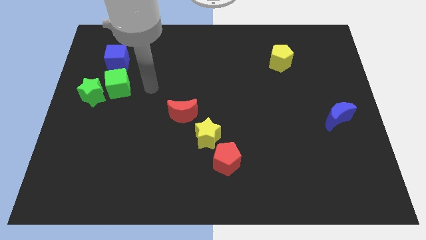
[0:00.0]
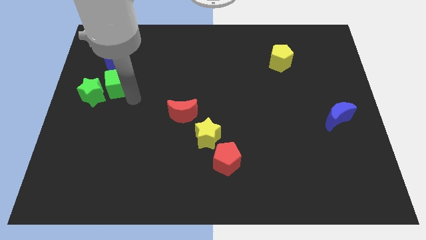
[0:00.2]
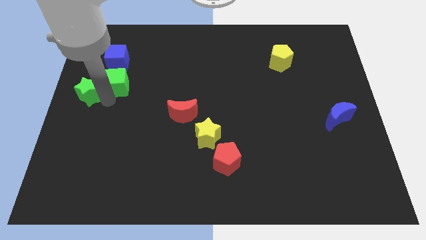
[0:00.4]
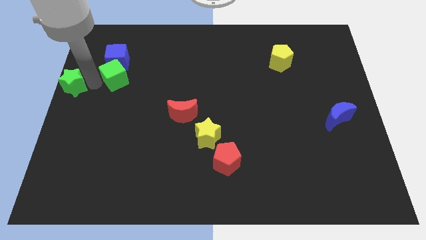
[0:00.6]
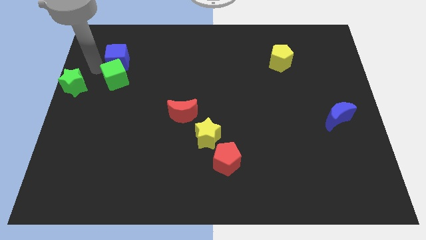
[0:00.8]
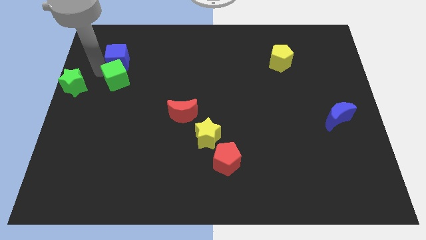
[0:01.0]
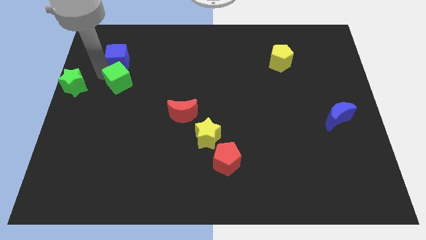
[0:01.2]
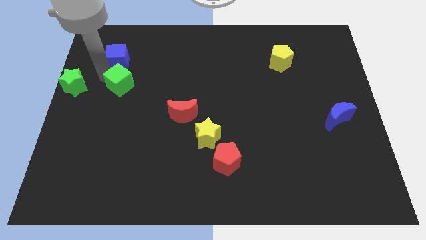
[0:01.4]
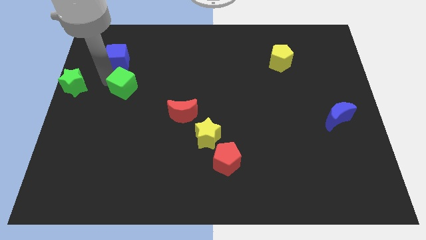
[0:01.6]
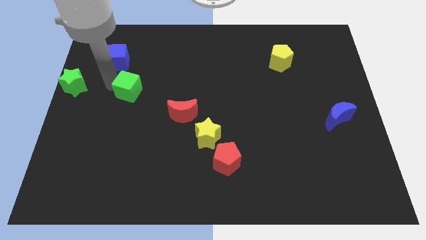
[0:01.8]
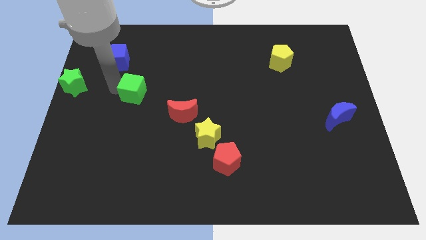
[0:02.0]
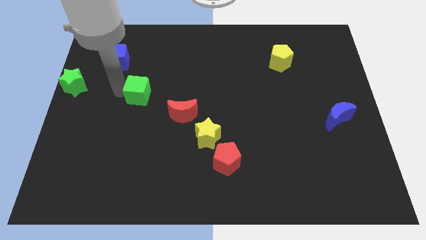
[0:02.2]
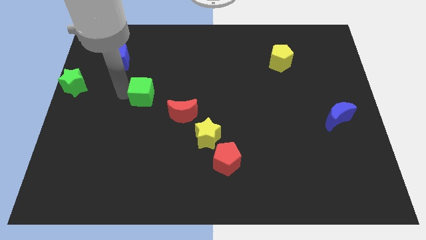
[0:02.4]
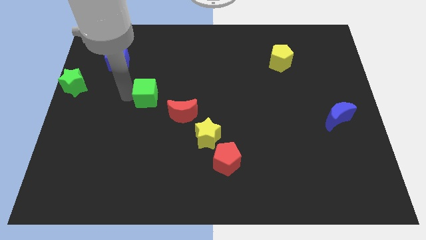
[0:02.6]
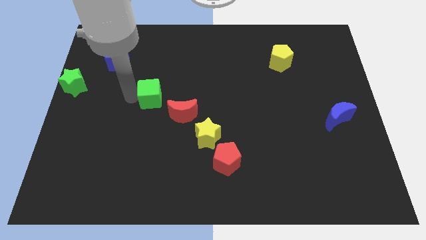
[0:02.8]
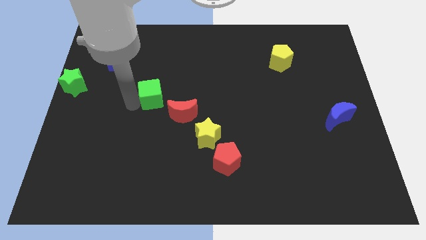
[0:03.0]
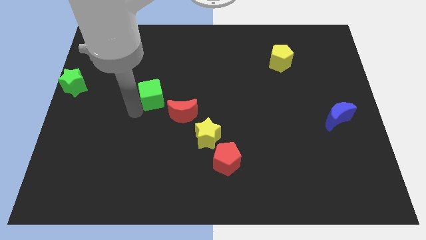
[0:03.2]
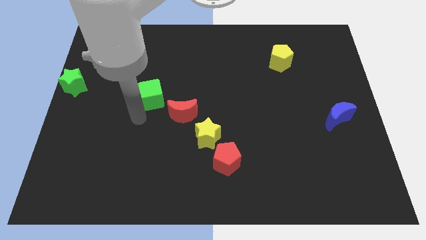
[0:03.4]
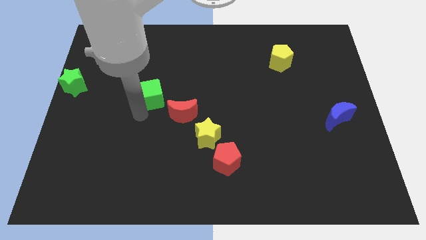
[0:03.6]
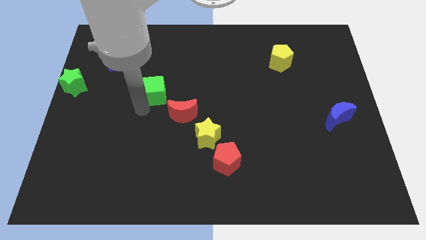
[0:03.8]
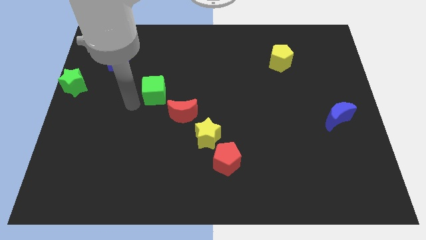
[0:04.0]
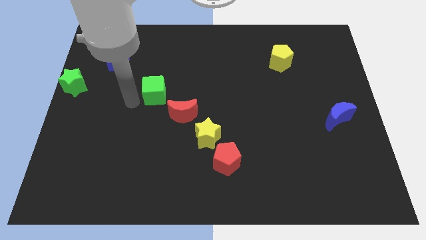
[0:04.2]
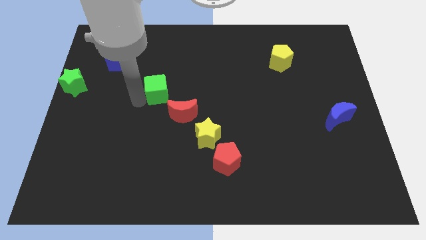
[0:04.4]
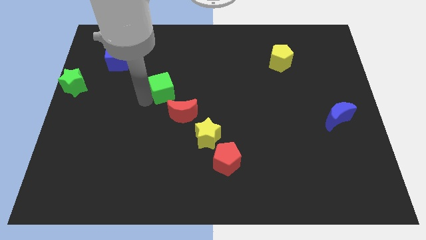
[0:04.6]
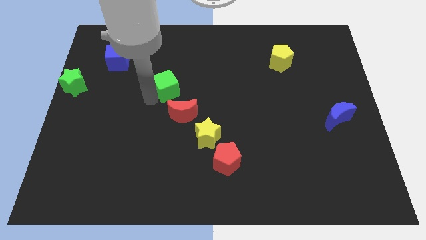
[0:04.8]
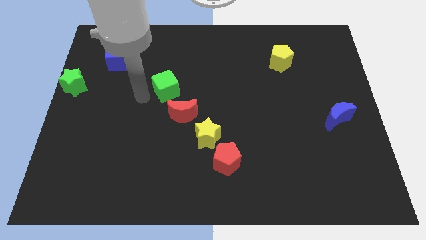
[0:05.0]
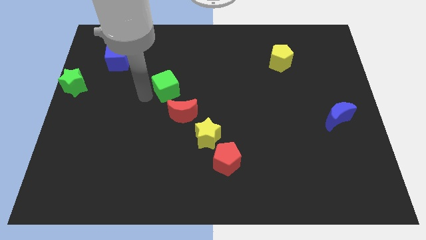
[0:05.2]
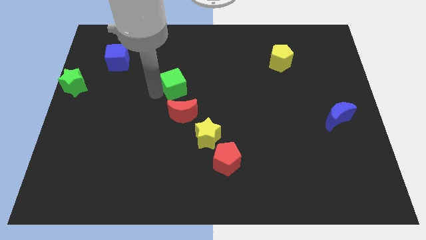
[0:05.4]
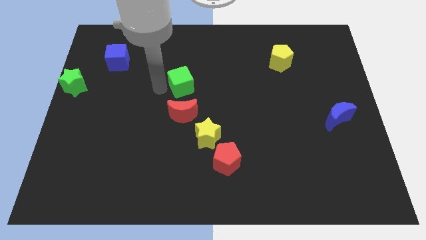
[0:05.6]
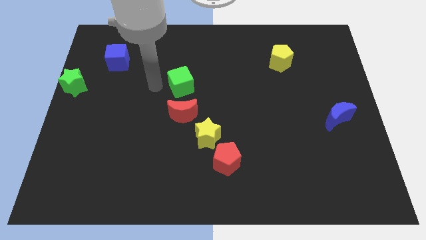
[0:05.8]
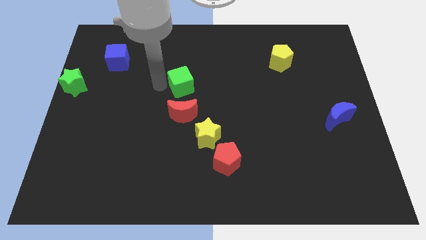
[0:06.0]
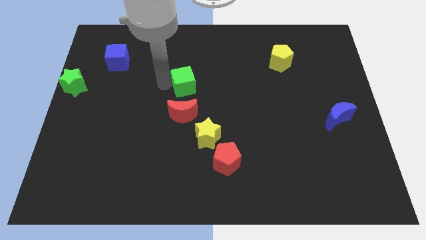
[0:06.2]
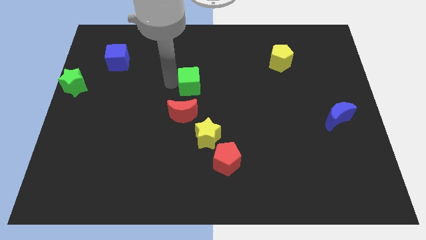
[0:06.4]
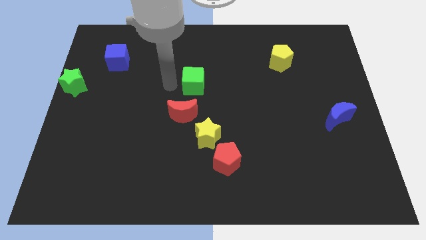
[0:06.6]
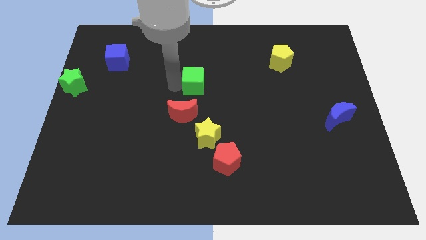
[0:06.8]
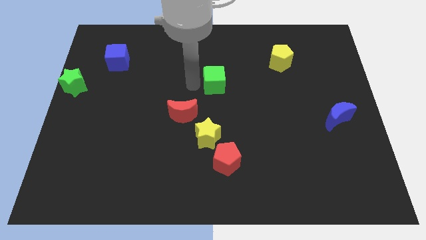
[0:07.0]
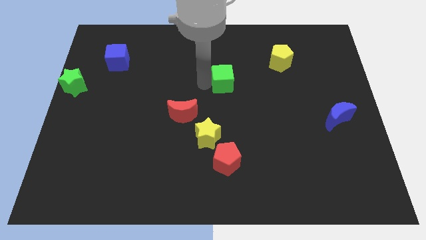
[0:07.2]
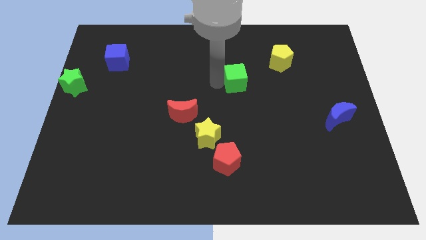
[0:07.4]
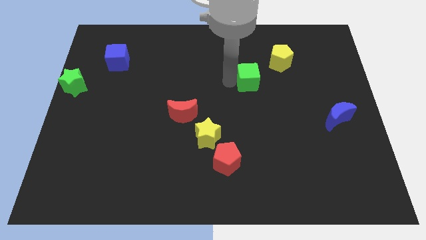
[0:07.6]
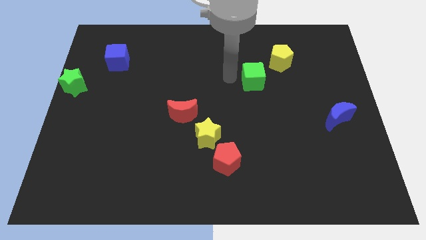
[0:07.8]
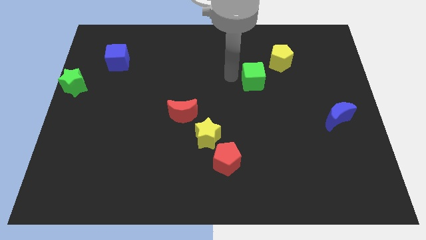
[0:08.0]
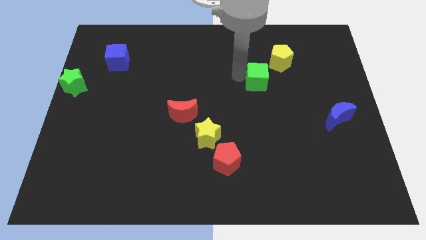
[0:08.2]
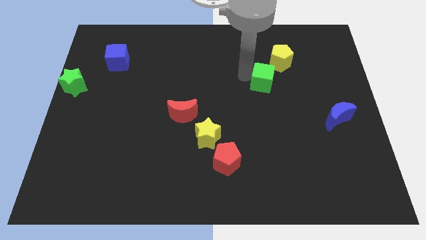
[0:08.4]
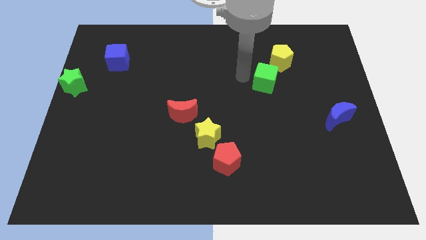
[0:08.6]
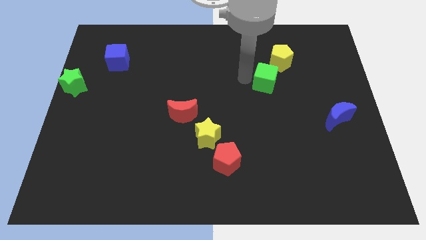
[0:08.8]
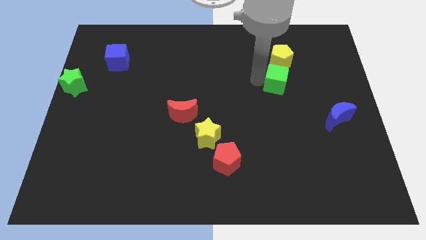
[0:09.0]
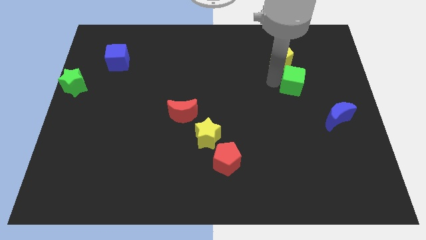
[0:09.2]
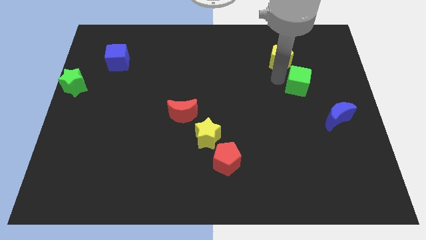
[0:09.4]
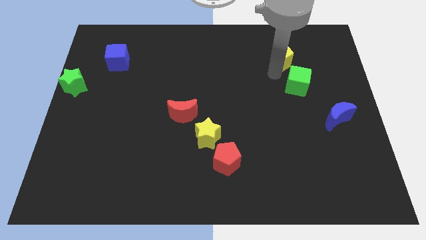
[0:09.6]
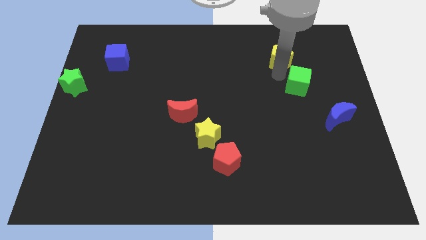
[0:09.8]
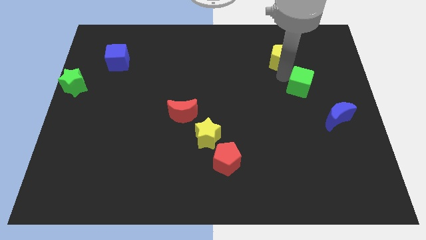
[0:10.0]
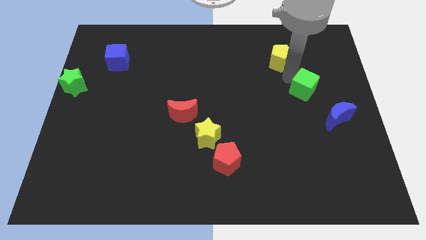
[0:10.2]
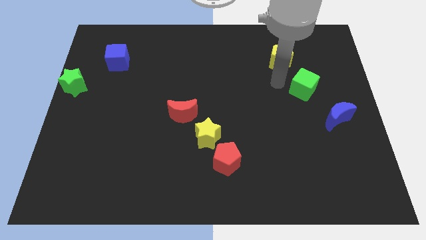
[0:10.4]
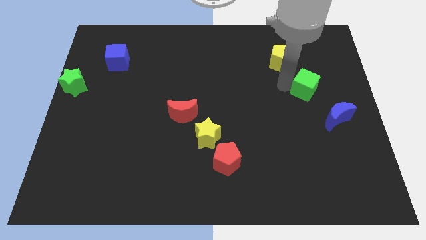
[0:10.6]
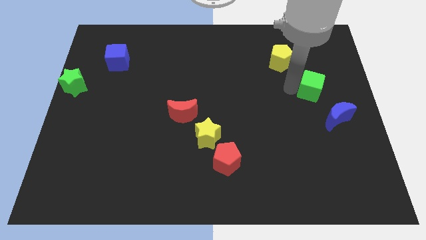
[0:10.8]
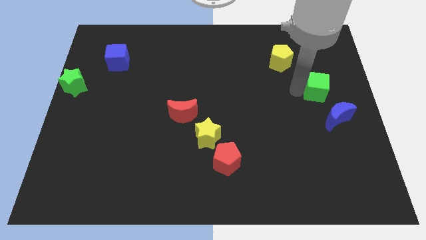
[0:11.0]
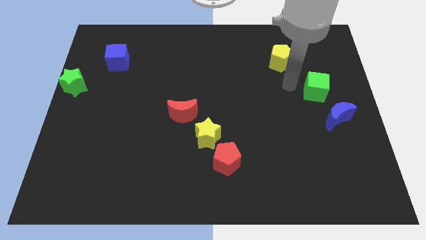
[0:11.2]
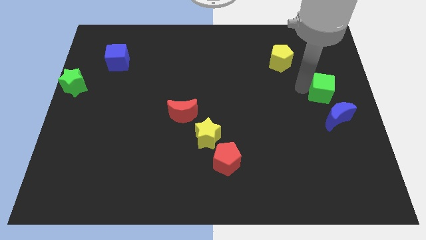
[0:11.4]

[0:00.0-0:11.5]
push the green cube to the center right

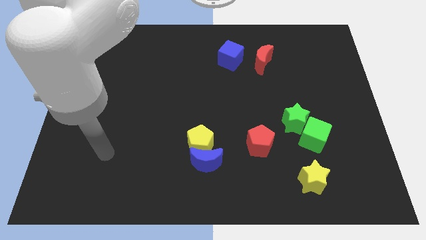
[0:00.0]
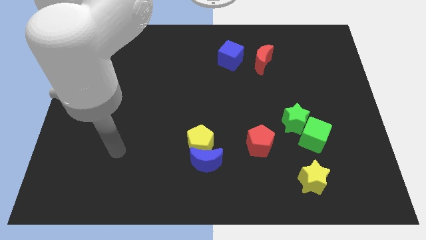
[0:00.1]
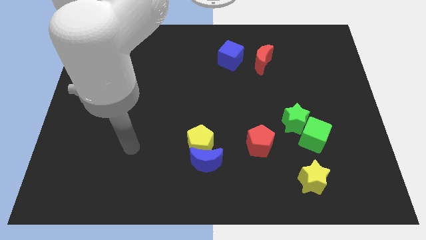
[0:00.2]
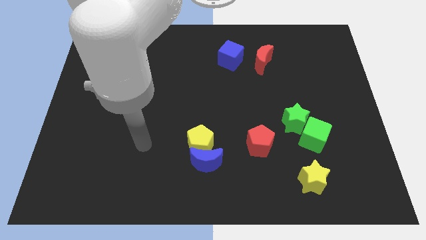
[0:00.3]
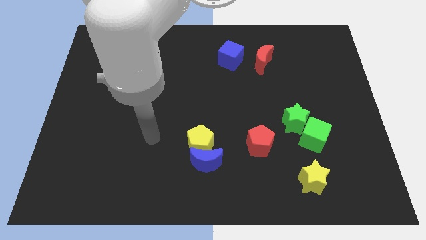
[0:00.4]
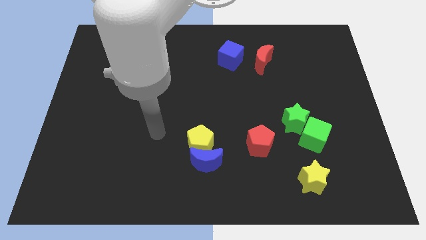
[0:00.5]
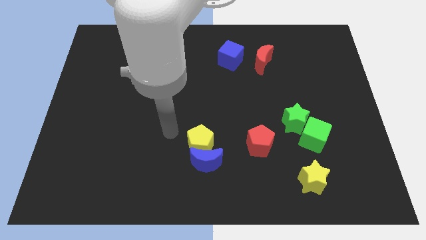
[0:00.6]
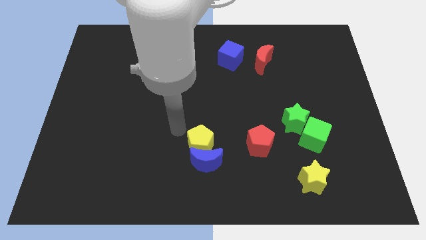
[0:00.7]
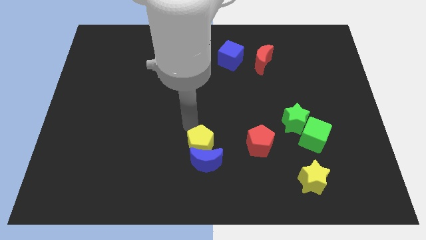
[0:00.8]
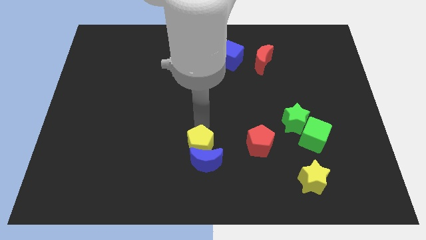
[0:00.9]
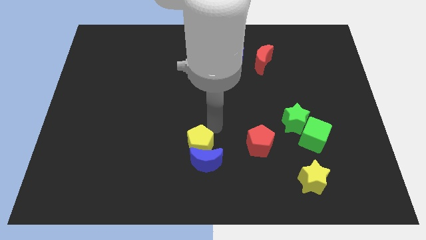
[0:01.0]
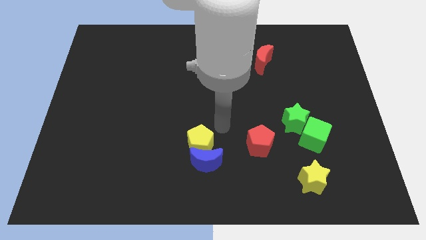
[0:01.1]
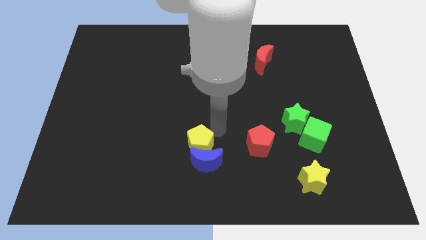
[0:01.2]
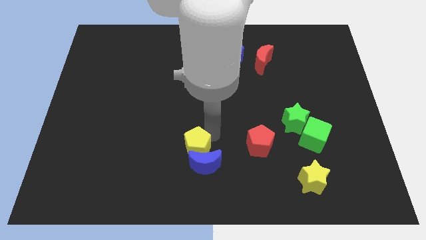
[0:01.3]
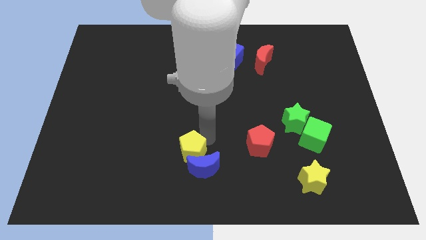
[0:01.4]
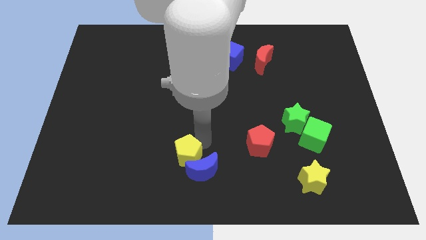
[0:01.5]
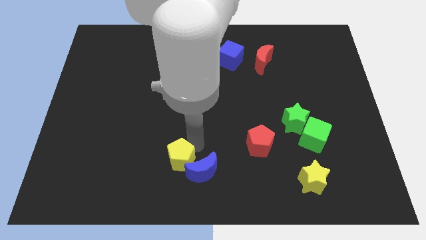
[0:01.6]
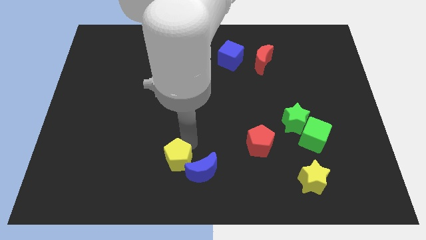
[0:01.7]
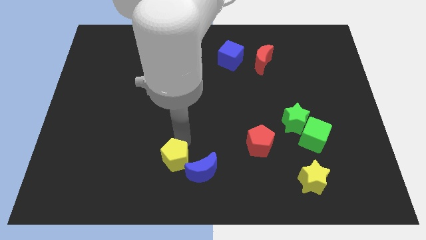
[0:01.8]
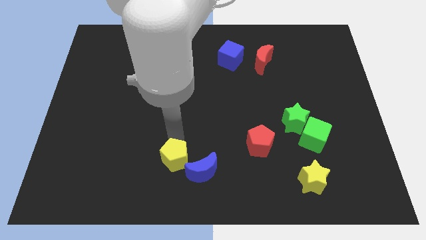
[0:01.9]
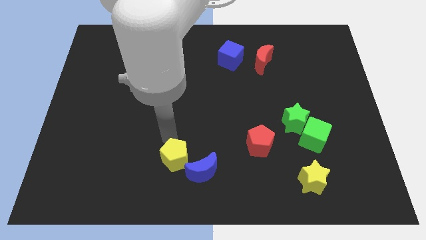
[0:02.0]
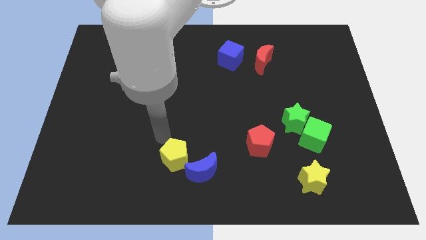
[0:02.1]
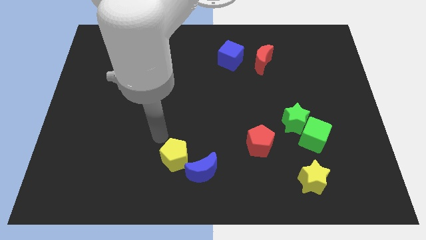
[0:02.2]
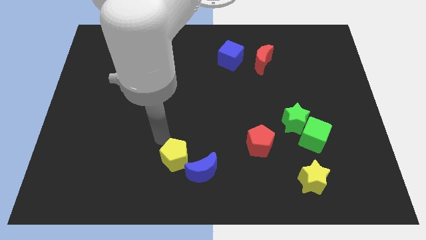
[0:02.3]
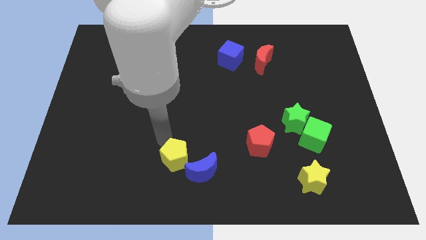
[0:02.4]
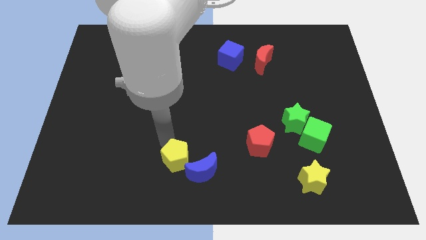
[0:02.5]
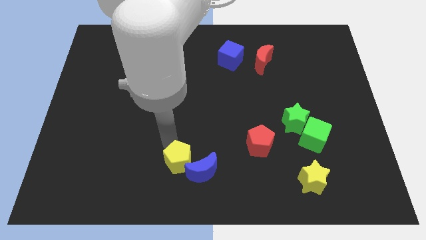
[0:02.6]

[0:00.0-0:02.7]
push the yellow pentagon to the bottom side
